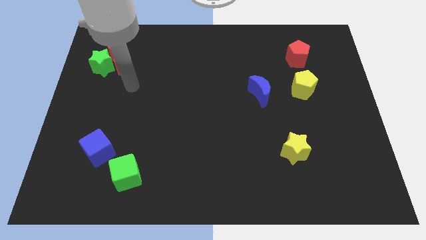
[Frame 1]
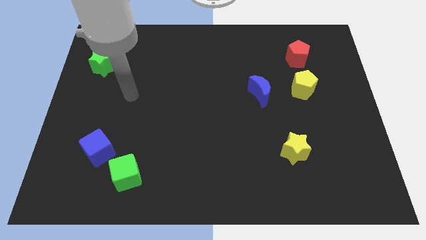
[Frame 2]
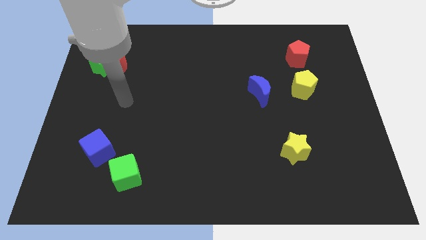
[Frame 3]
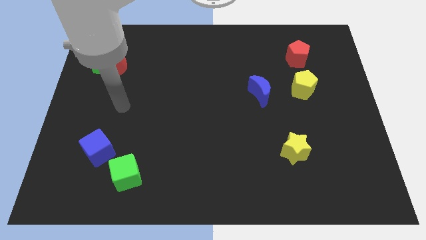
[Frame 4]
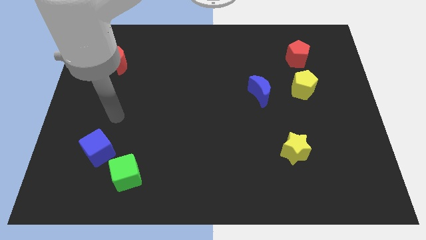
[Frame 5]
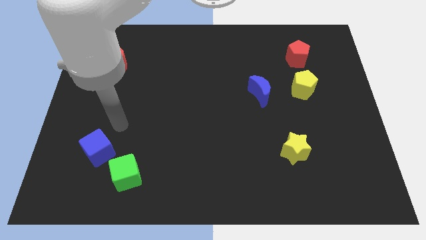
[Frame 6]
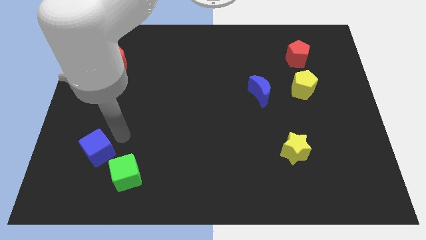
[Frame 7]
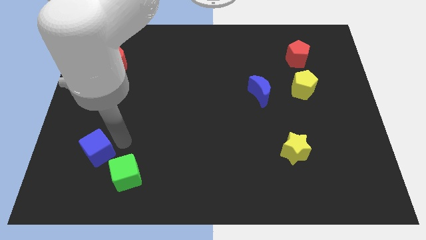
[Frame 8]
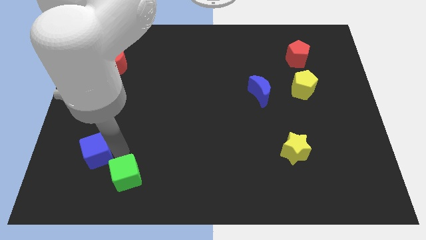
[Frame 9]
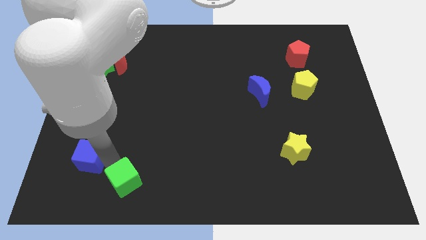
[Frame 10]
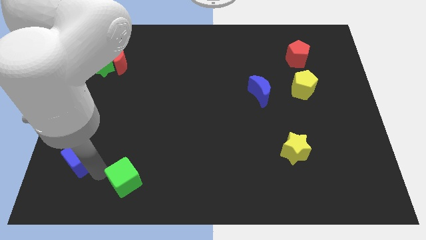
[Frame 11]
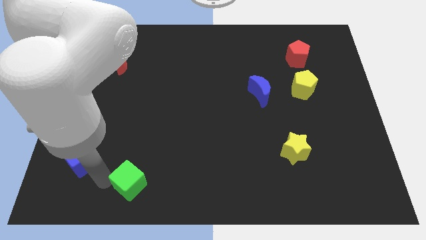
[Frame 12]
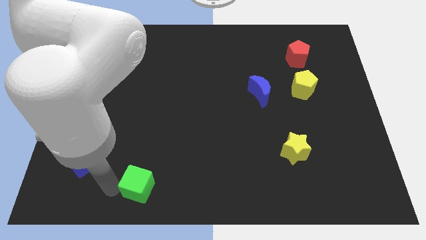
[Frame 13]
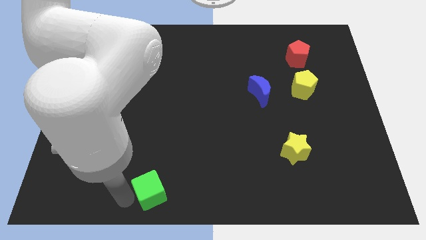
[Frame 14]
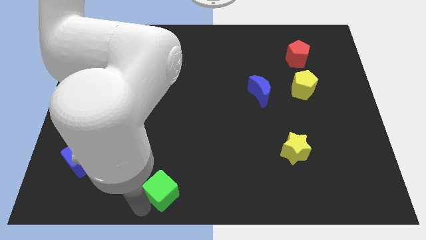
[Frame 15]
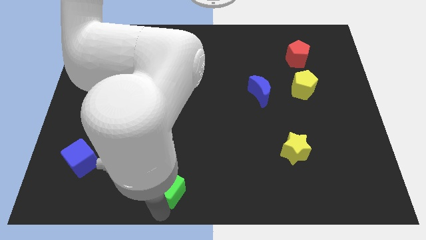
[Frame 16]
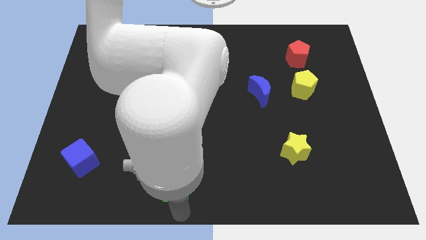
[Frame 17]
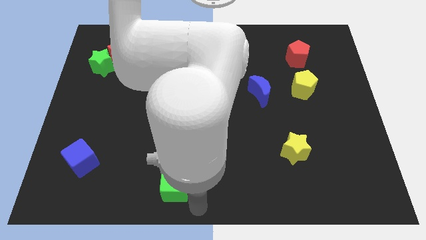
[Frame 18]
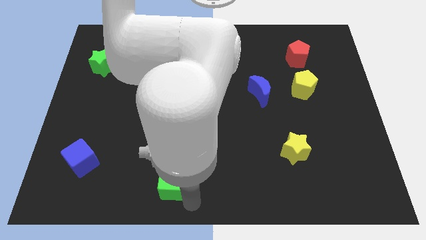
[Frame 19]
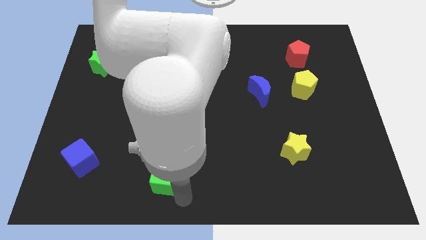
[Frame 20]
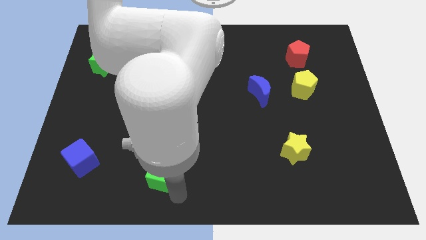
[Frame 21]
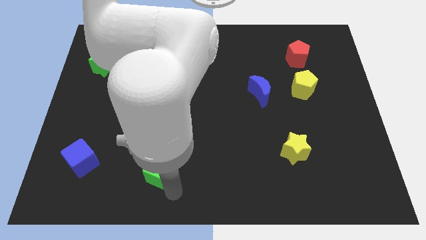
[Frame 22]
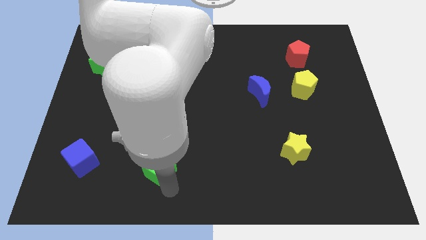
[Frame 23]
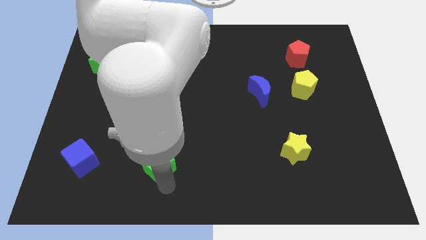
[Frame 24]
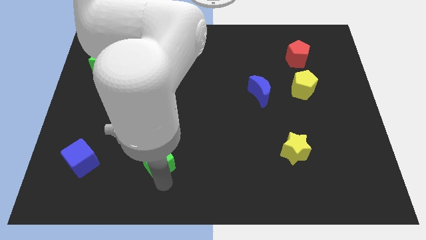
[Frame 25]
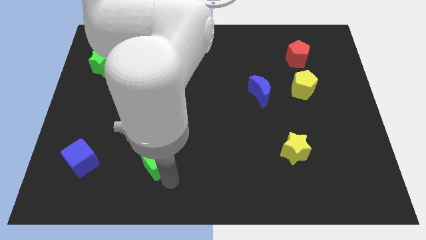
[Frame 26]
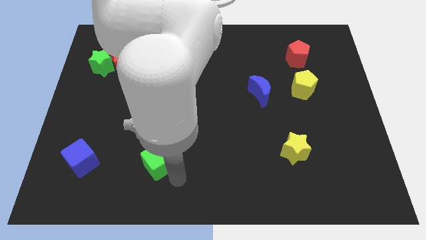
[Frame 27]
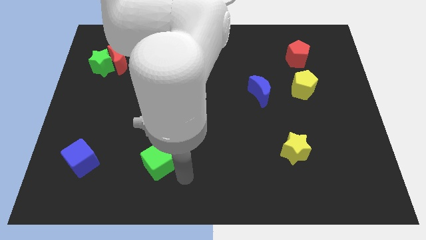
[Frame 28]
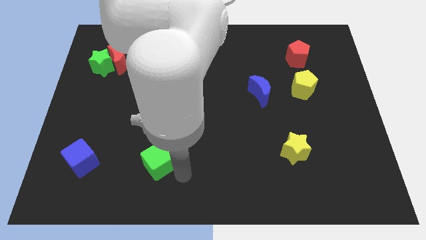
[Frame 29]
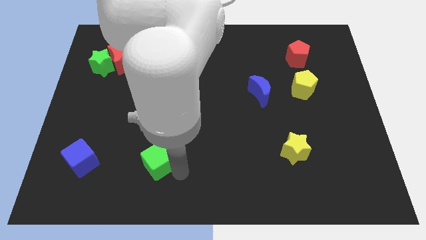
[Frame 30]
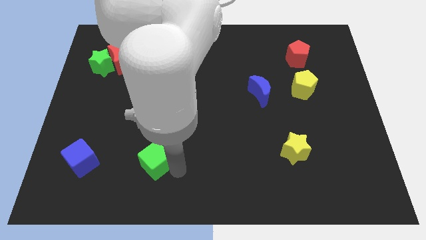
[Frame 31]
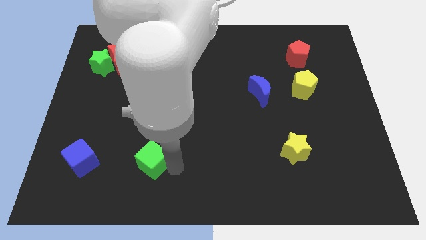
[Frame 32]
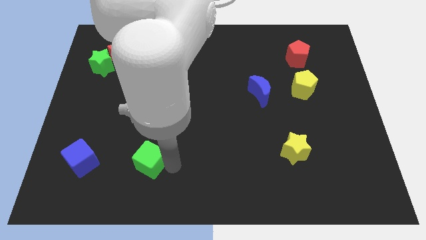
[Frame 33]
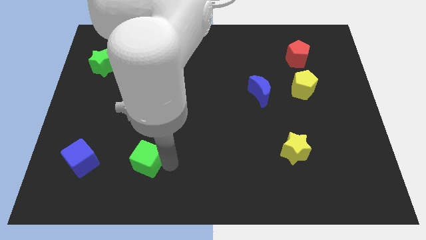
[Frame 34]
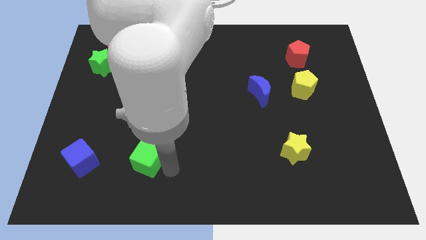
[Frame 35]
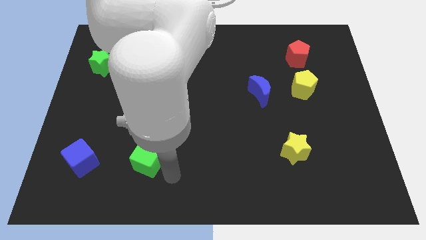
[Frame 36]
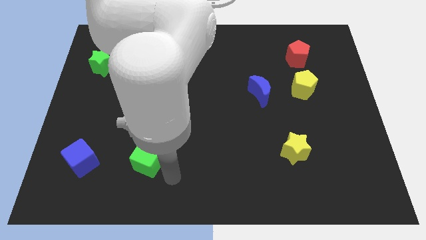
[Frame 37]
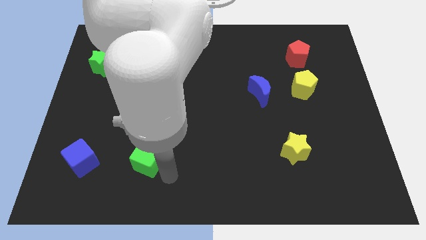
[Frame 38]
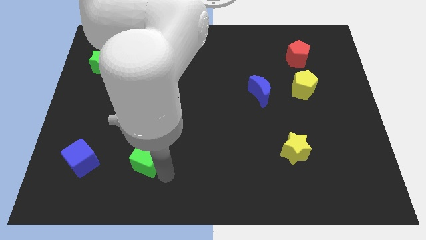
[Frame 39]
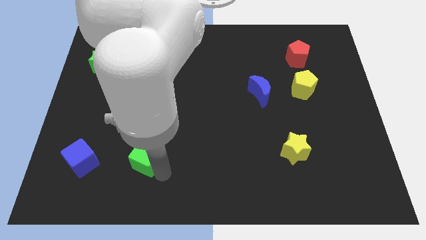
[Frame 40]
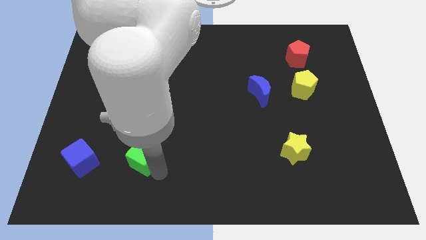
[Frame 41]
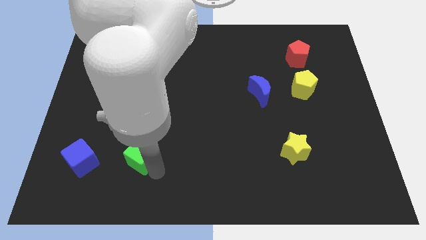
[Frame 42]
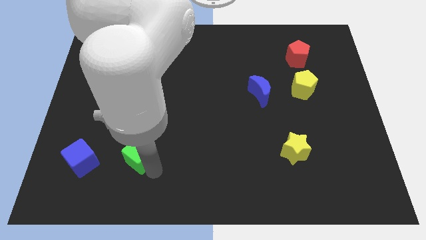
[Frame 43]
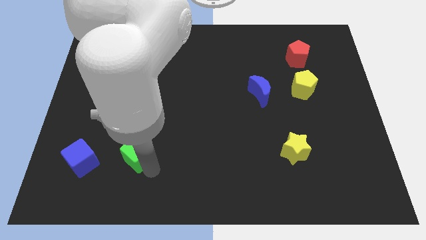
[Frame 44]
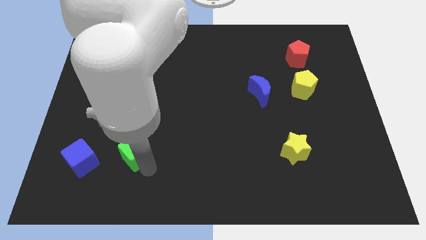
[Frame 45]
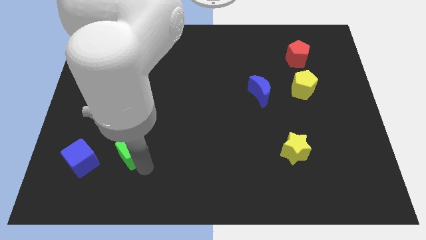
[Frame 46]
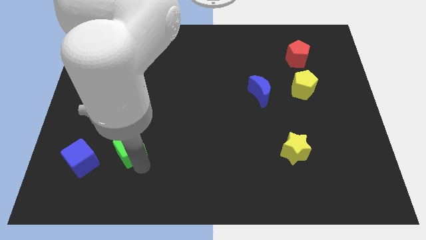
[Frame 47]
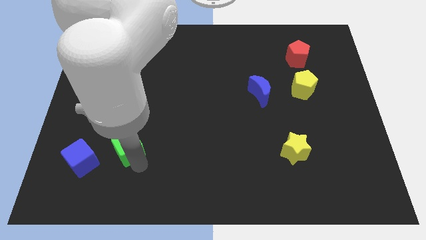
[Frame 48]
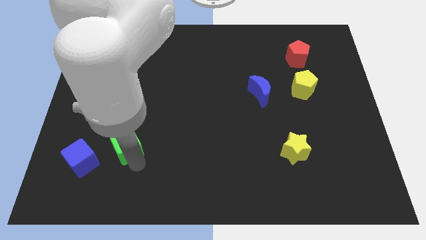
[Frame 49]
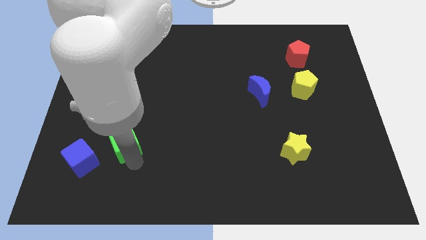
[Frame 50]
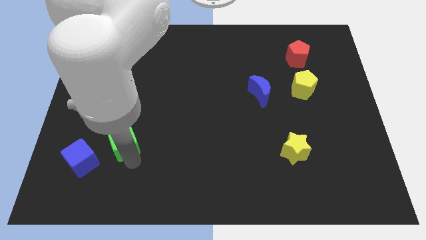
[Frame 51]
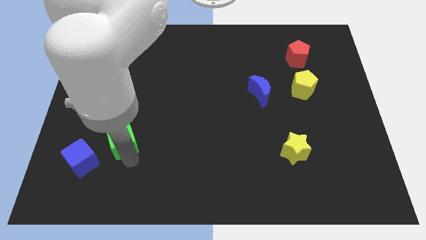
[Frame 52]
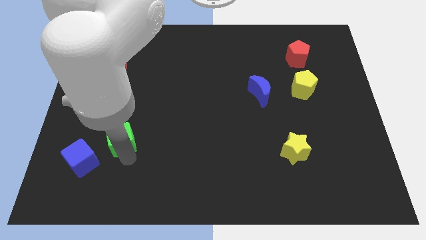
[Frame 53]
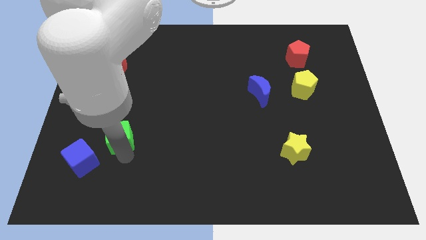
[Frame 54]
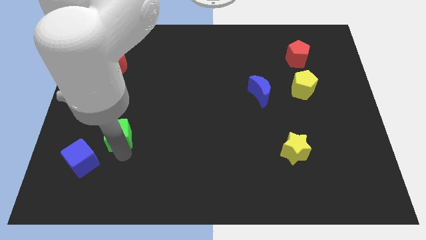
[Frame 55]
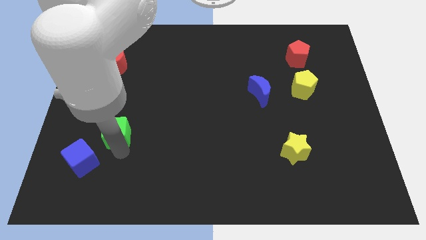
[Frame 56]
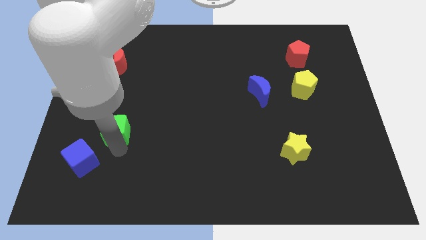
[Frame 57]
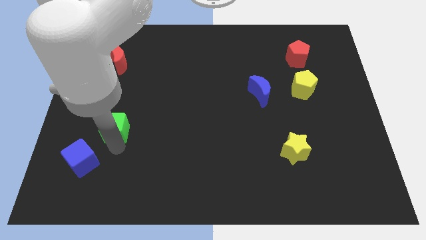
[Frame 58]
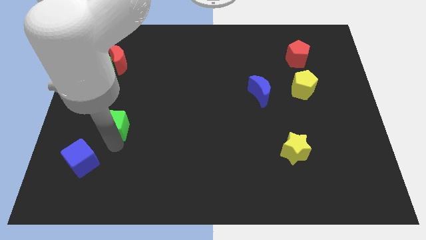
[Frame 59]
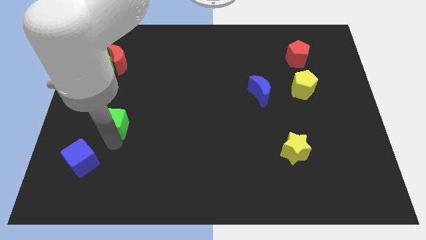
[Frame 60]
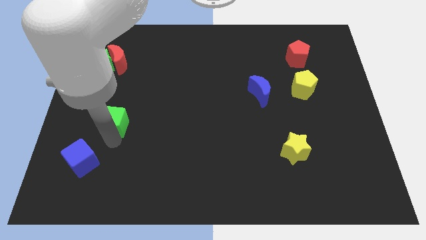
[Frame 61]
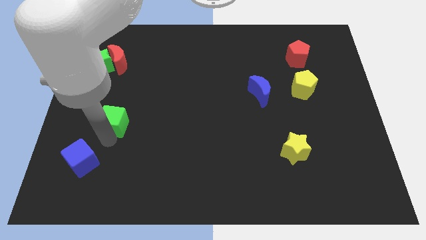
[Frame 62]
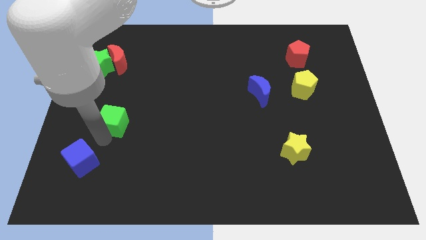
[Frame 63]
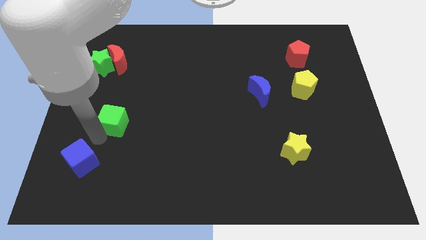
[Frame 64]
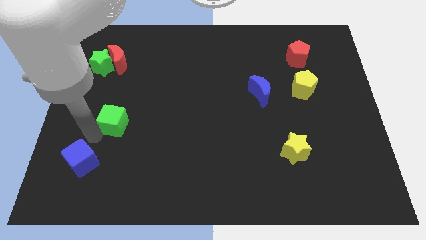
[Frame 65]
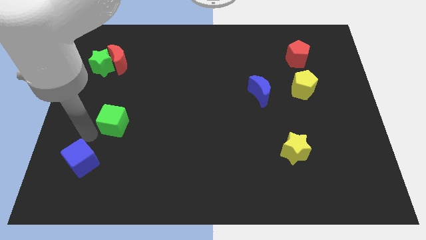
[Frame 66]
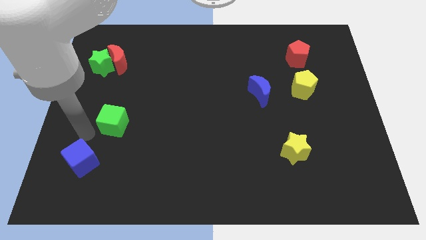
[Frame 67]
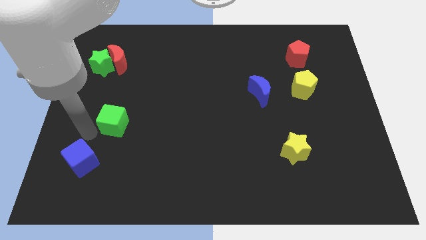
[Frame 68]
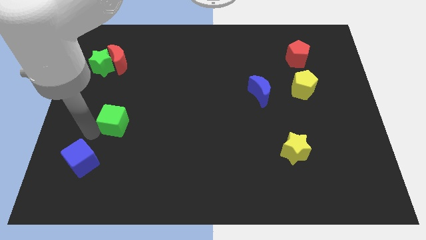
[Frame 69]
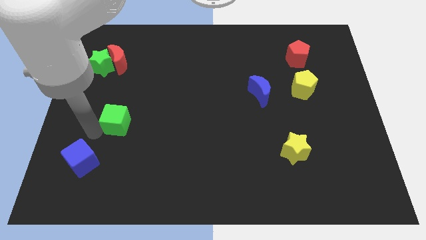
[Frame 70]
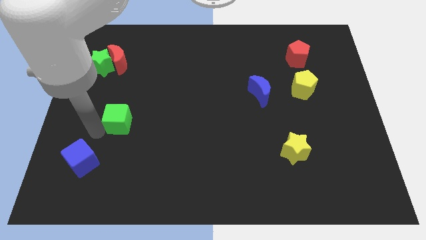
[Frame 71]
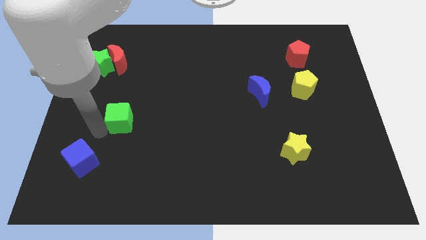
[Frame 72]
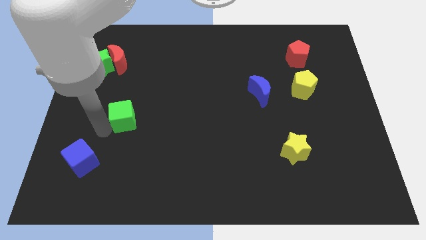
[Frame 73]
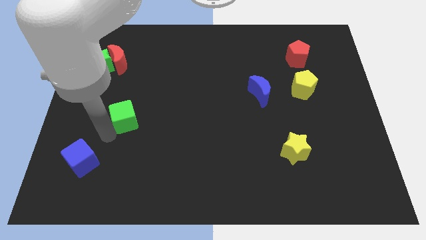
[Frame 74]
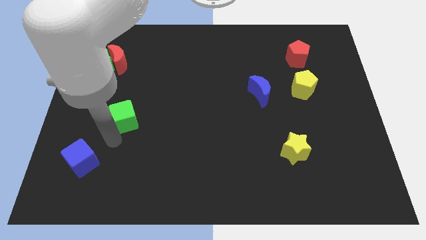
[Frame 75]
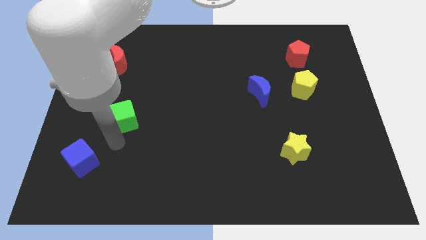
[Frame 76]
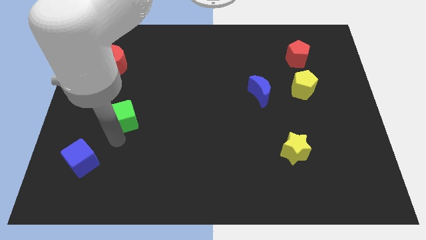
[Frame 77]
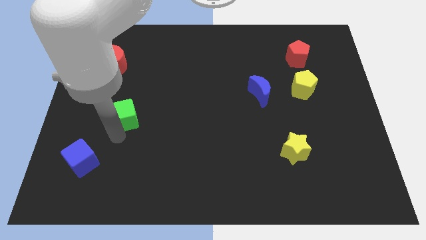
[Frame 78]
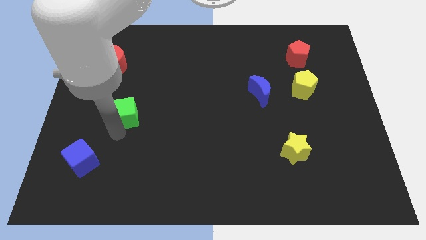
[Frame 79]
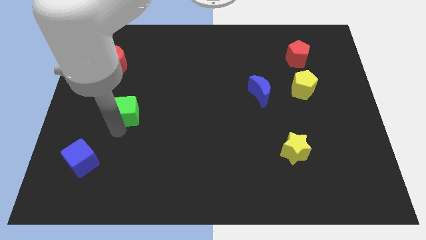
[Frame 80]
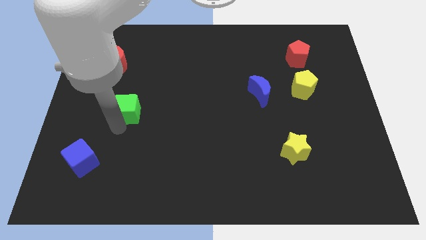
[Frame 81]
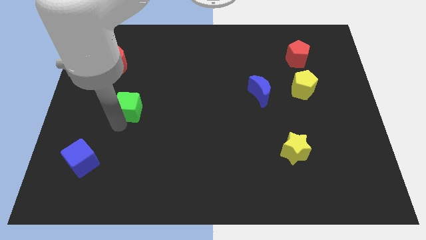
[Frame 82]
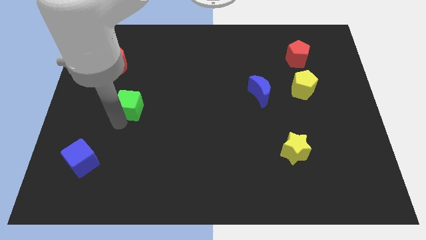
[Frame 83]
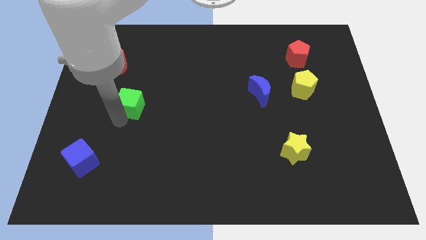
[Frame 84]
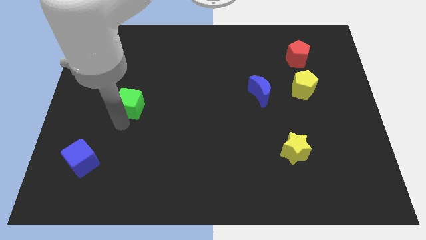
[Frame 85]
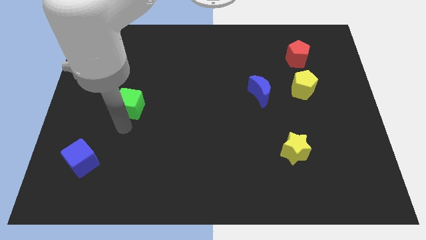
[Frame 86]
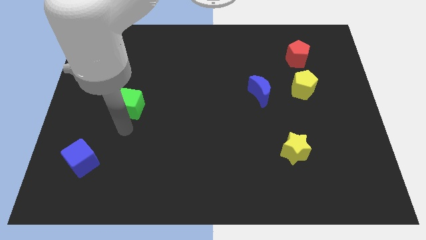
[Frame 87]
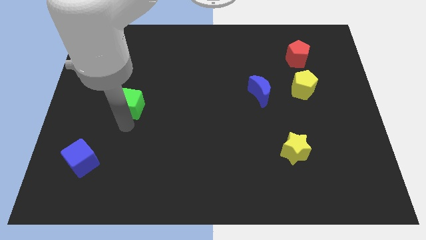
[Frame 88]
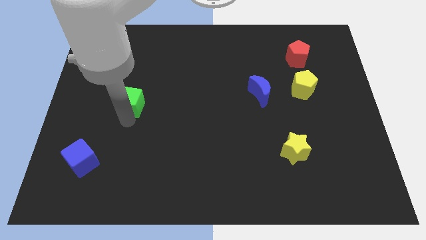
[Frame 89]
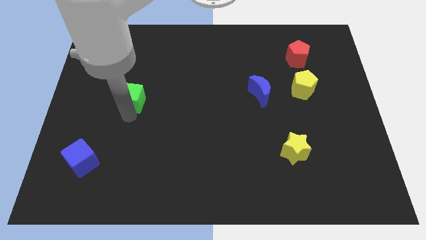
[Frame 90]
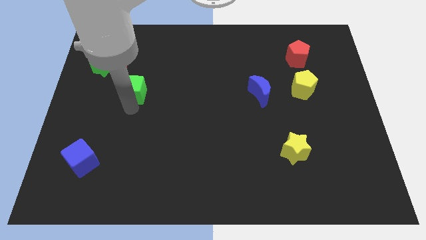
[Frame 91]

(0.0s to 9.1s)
put the green cube to the bottom right side of the red moon
